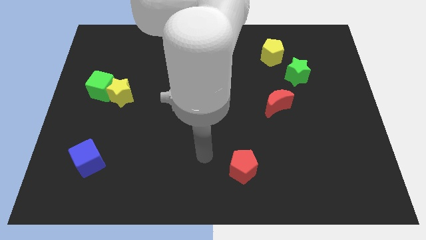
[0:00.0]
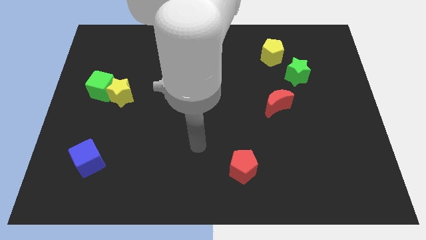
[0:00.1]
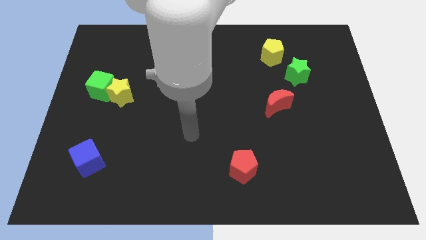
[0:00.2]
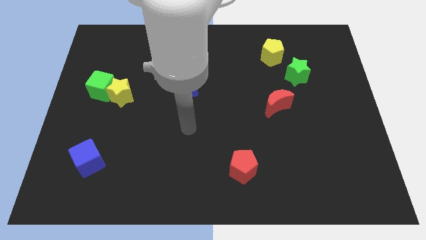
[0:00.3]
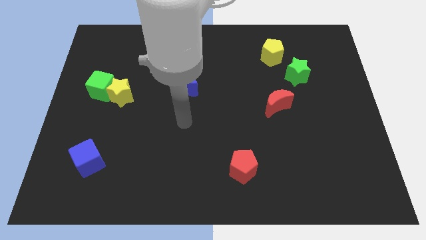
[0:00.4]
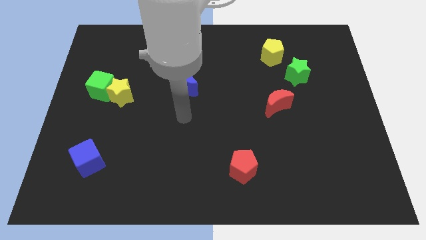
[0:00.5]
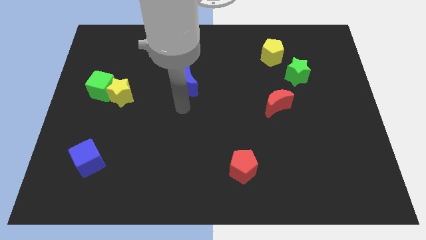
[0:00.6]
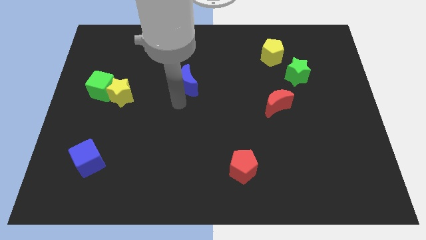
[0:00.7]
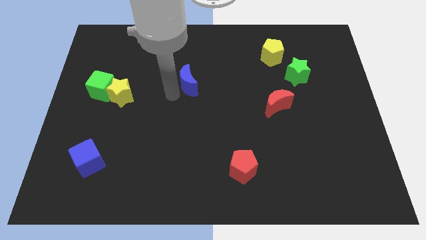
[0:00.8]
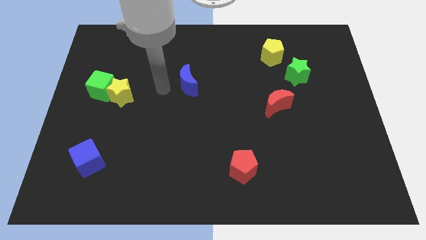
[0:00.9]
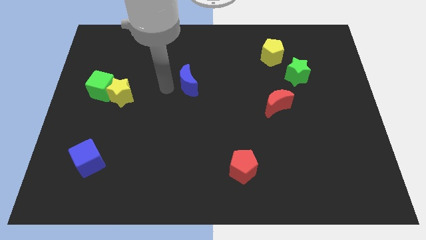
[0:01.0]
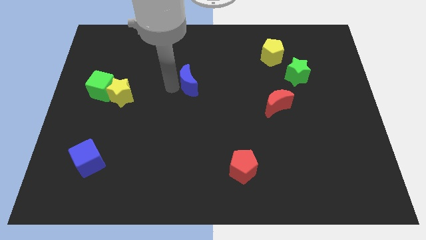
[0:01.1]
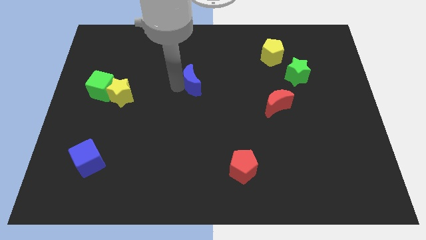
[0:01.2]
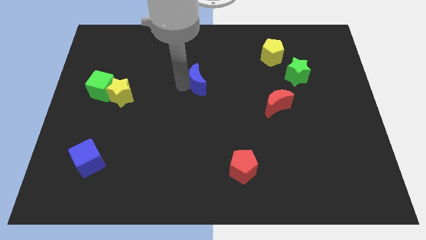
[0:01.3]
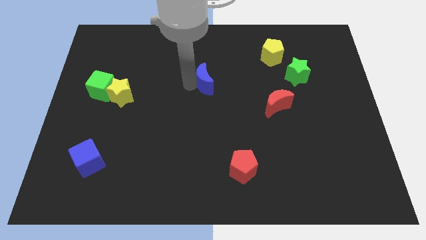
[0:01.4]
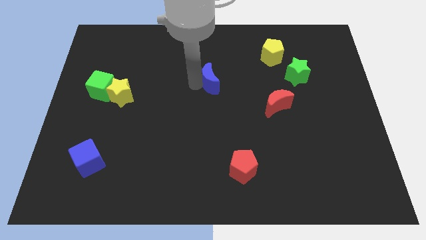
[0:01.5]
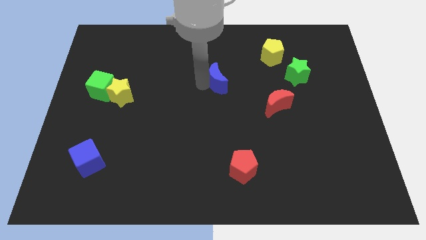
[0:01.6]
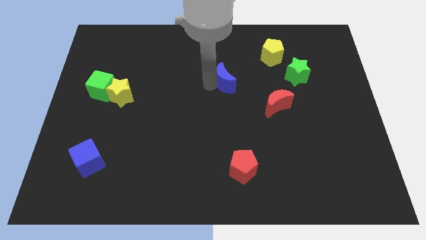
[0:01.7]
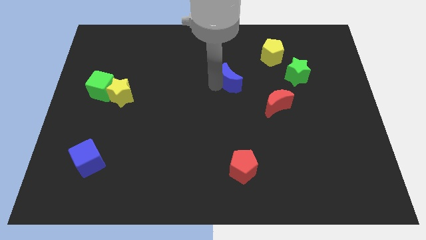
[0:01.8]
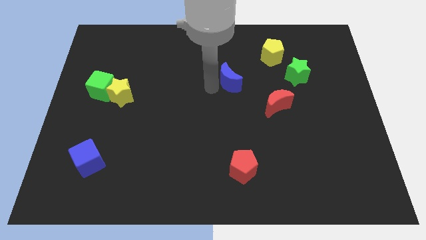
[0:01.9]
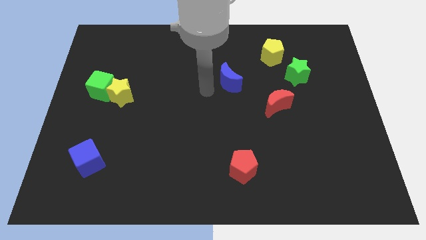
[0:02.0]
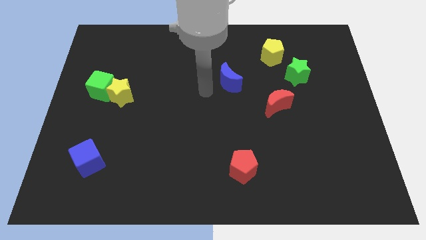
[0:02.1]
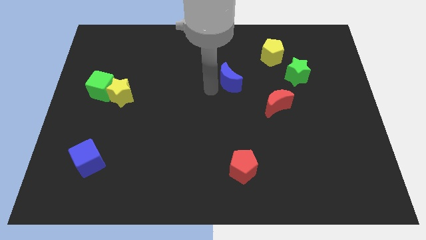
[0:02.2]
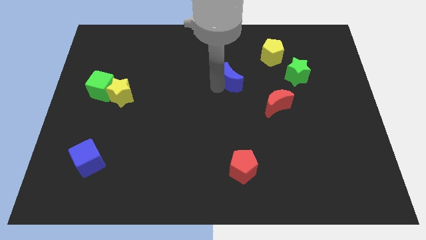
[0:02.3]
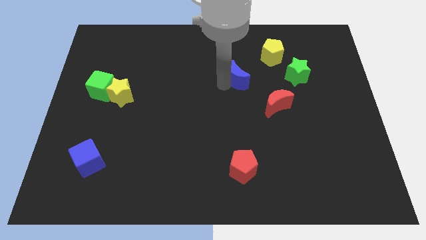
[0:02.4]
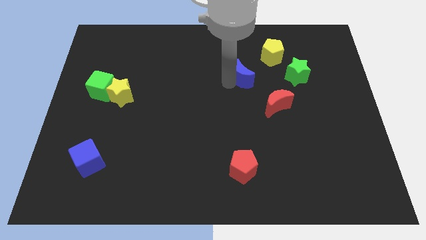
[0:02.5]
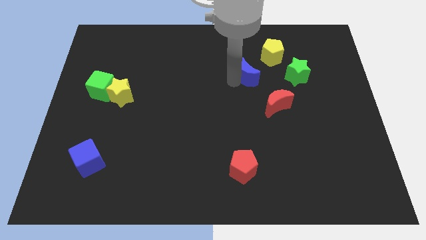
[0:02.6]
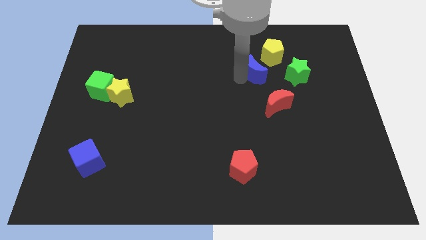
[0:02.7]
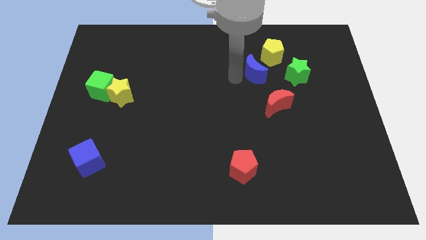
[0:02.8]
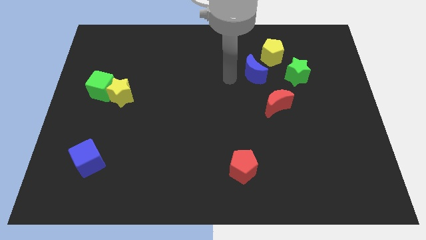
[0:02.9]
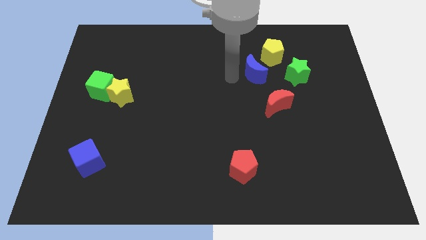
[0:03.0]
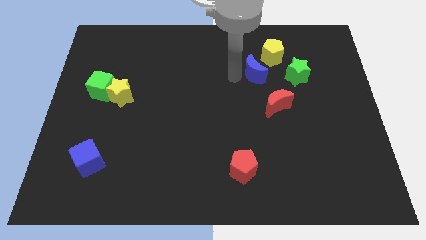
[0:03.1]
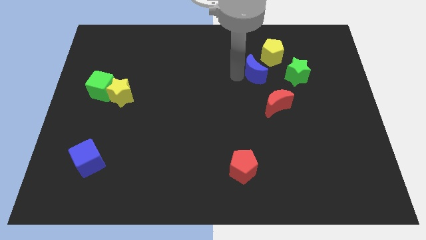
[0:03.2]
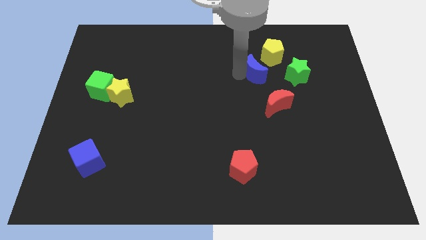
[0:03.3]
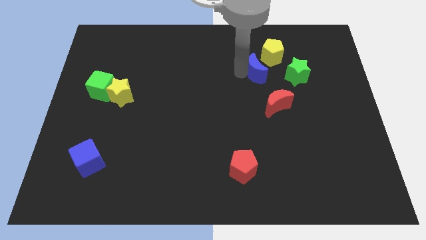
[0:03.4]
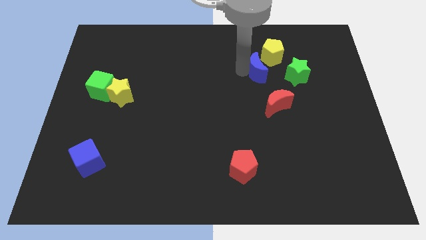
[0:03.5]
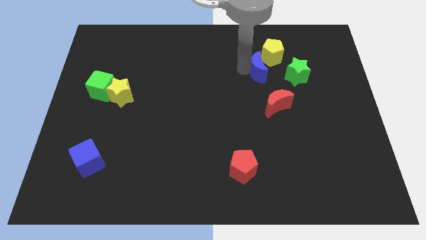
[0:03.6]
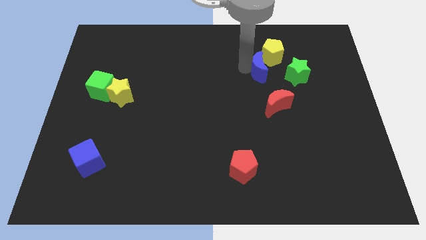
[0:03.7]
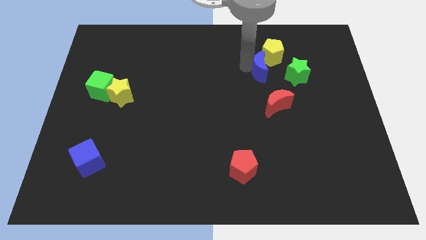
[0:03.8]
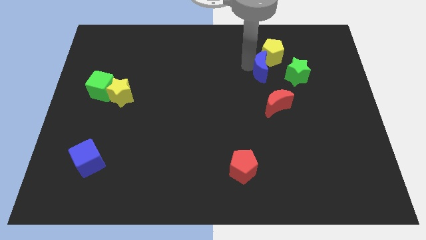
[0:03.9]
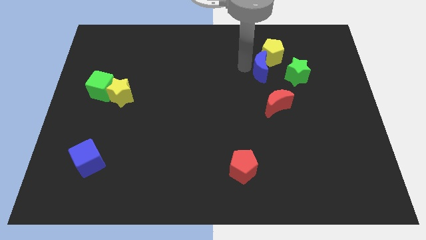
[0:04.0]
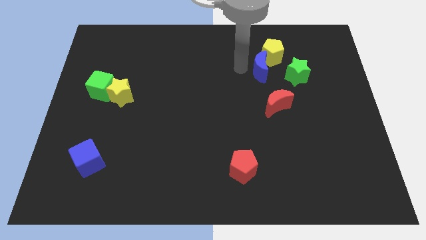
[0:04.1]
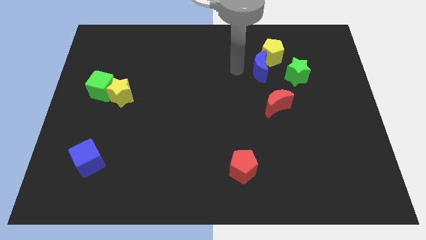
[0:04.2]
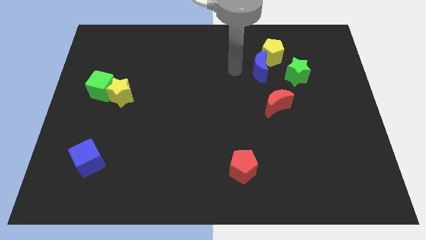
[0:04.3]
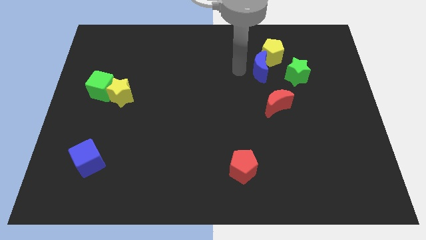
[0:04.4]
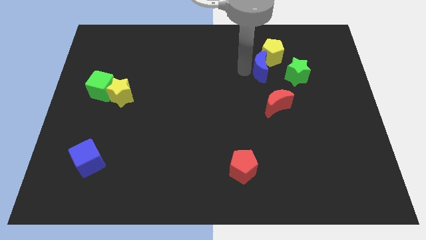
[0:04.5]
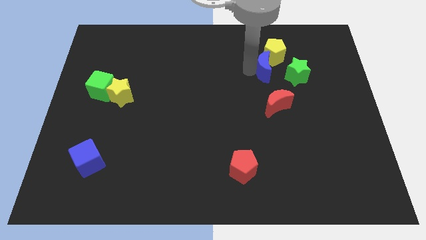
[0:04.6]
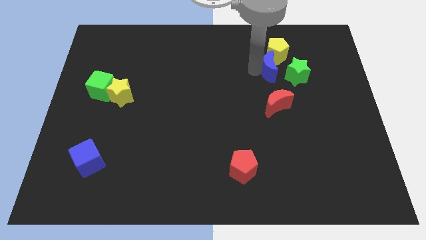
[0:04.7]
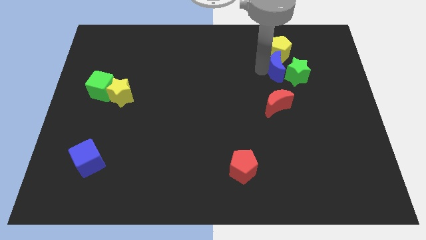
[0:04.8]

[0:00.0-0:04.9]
move the blue moon to the green star

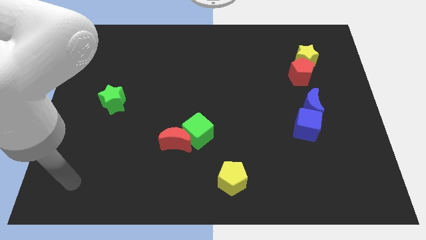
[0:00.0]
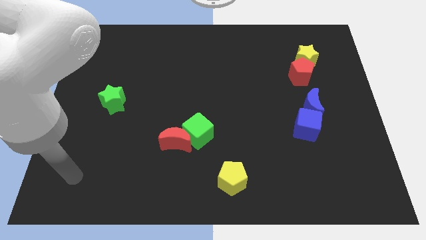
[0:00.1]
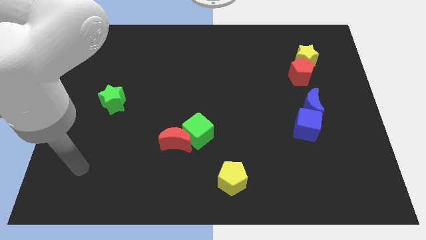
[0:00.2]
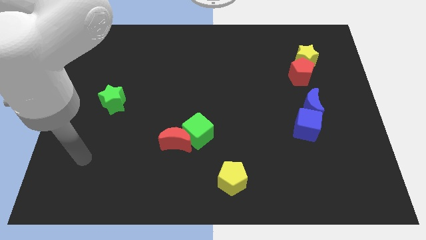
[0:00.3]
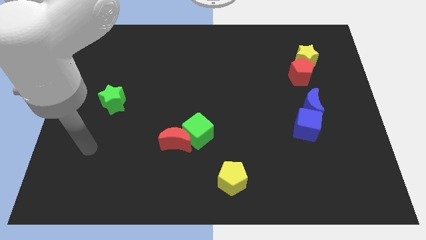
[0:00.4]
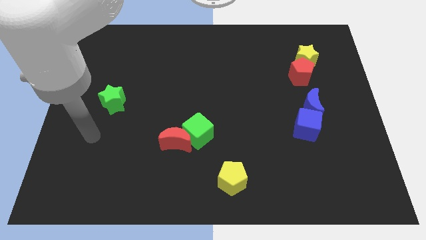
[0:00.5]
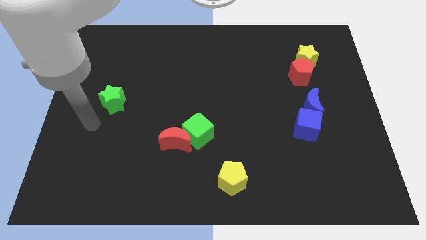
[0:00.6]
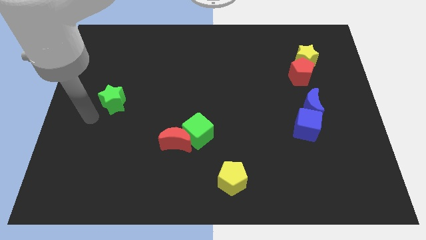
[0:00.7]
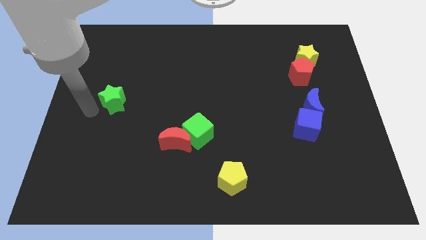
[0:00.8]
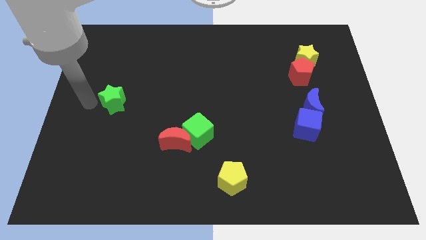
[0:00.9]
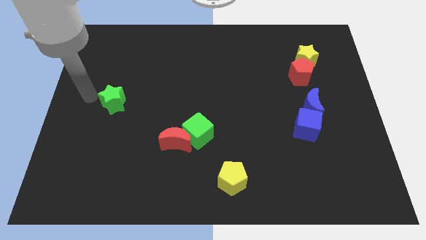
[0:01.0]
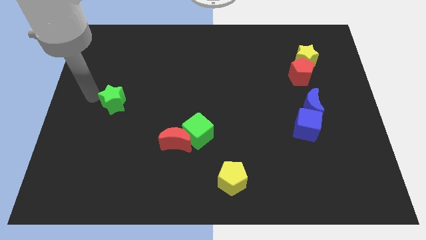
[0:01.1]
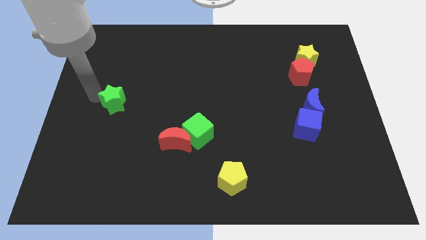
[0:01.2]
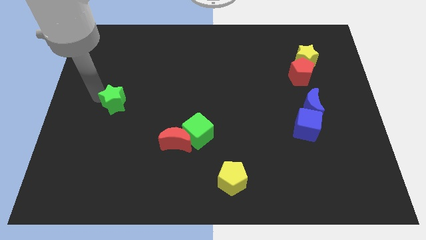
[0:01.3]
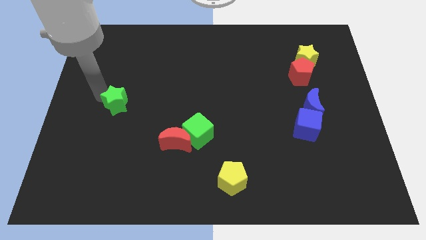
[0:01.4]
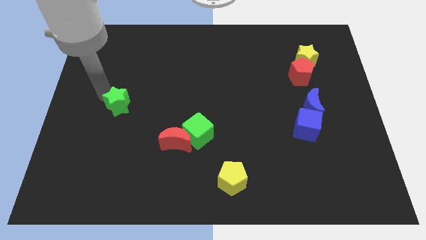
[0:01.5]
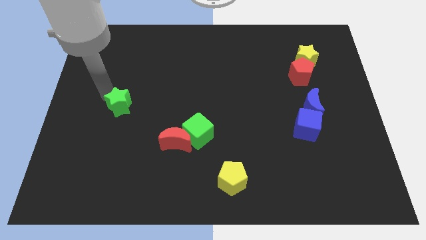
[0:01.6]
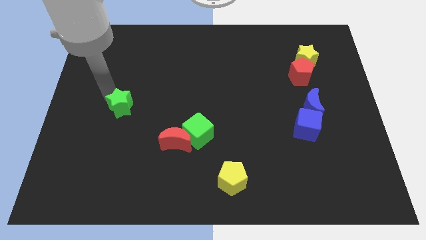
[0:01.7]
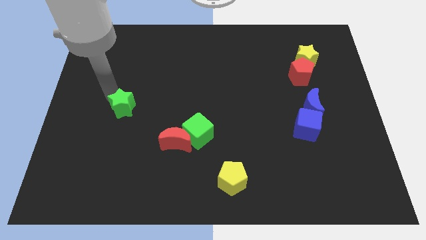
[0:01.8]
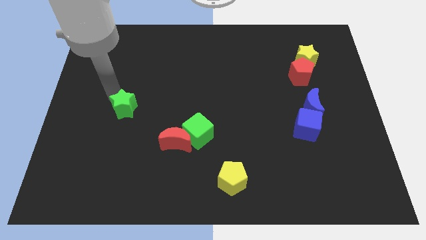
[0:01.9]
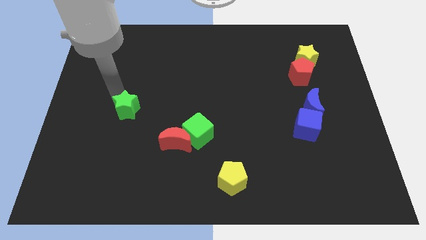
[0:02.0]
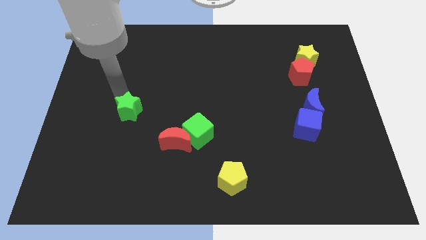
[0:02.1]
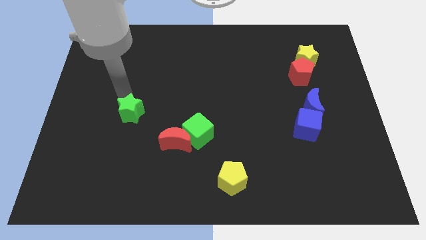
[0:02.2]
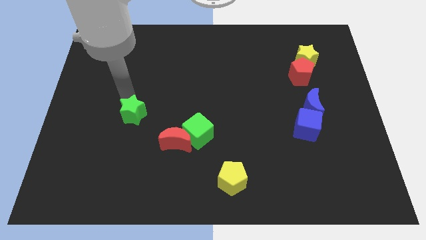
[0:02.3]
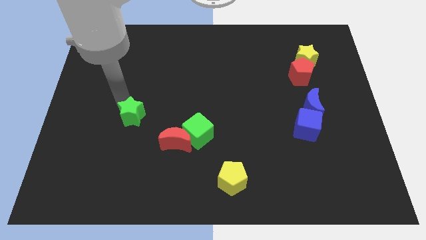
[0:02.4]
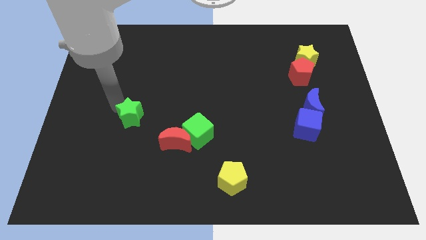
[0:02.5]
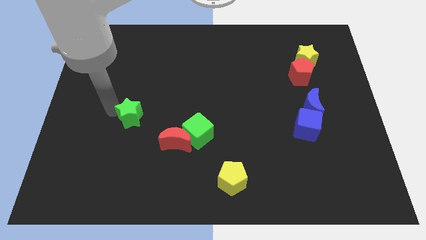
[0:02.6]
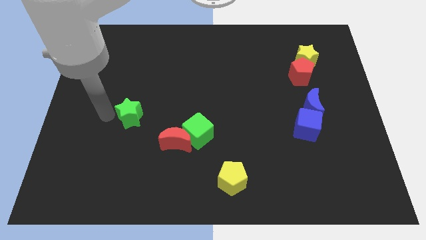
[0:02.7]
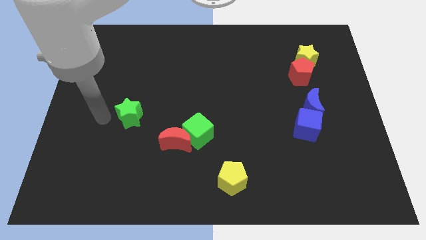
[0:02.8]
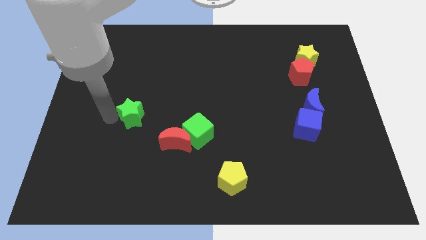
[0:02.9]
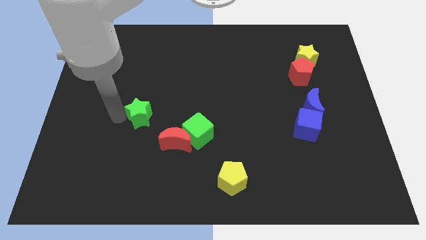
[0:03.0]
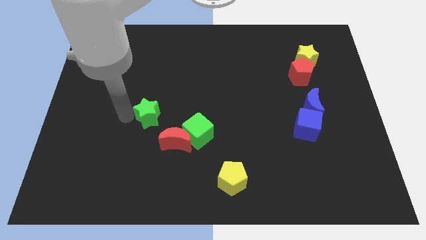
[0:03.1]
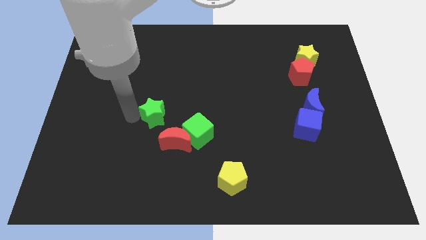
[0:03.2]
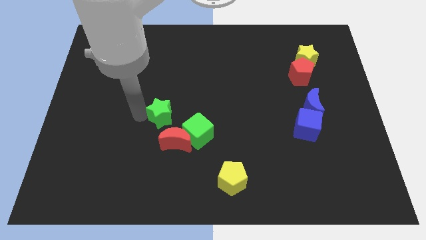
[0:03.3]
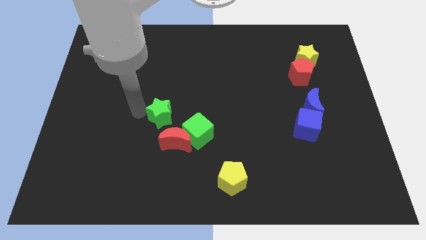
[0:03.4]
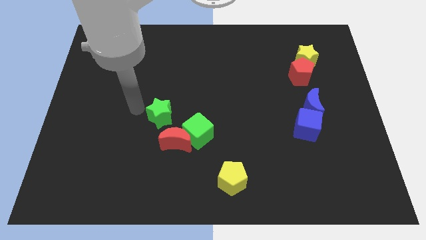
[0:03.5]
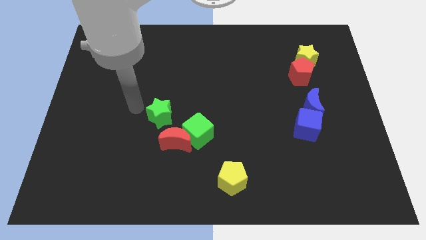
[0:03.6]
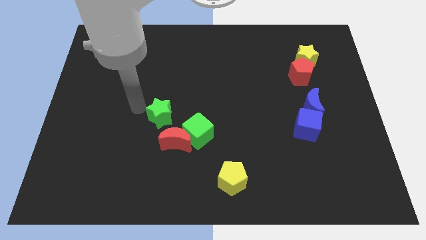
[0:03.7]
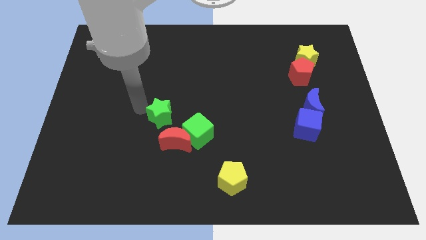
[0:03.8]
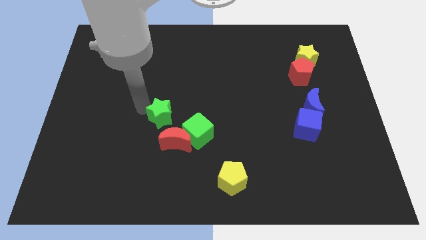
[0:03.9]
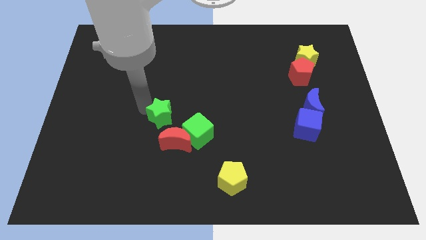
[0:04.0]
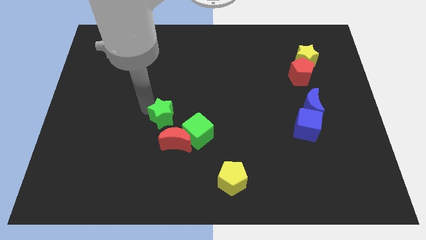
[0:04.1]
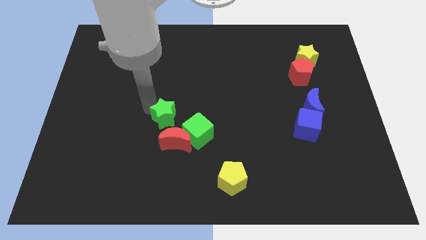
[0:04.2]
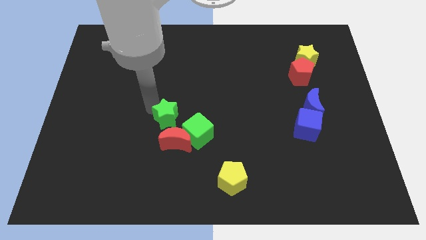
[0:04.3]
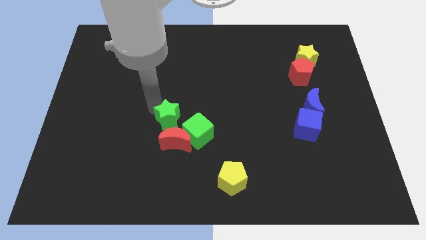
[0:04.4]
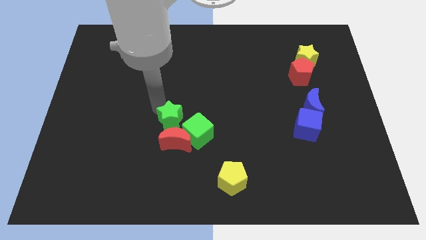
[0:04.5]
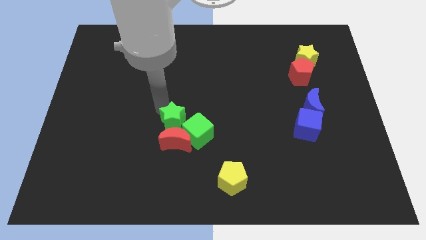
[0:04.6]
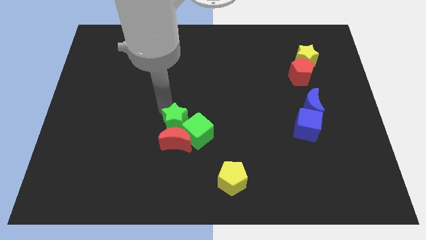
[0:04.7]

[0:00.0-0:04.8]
slide the green star to the green cube
